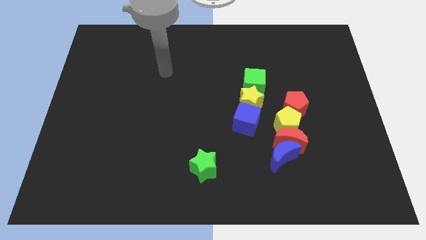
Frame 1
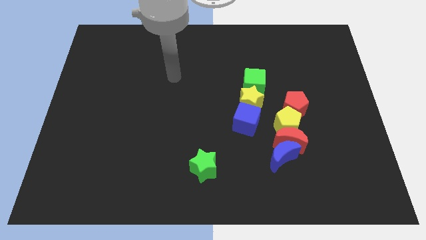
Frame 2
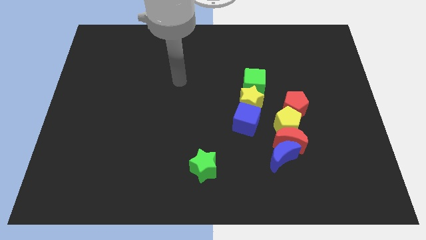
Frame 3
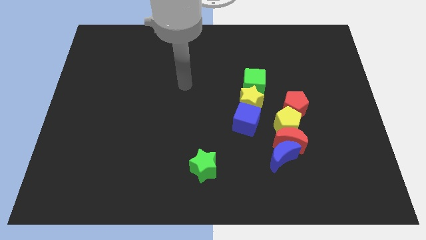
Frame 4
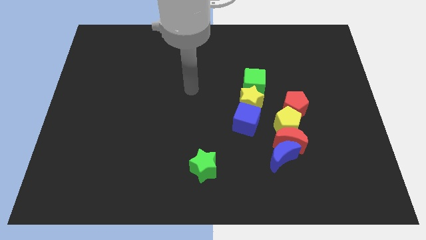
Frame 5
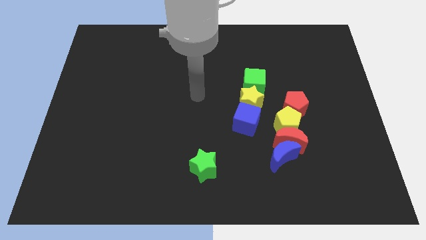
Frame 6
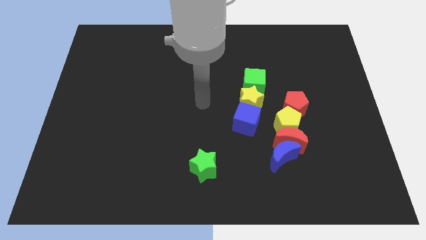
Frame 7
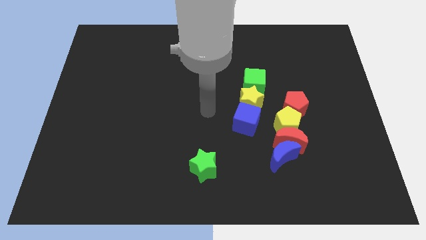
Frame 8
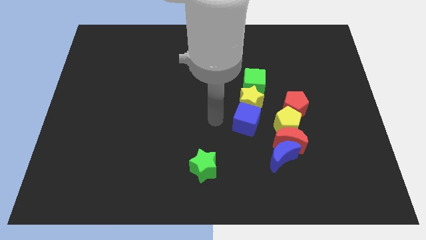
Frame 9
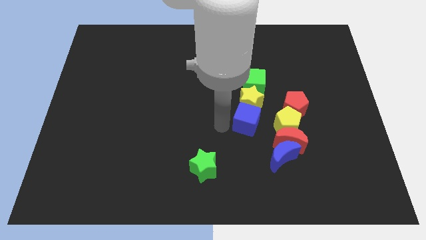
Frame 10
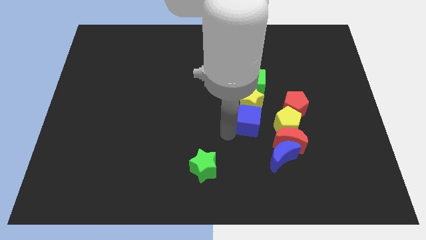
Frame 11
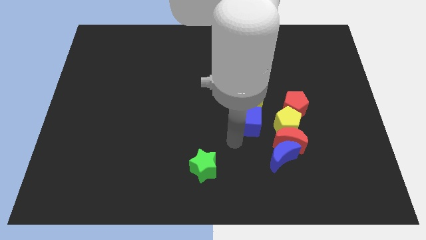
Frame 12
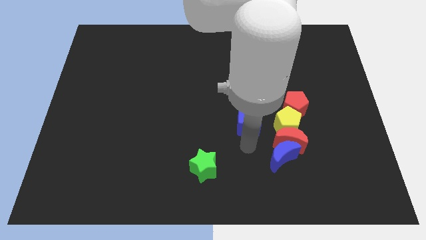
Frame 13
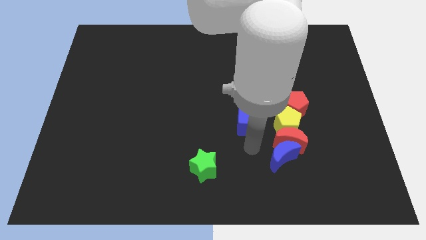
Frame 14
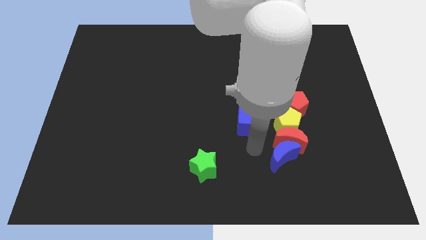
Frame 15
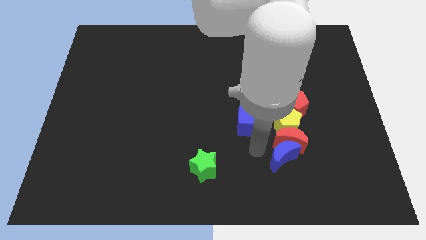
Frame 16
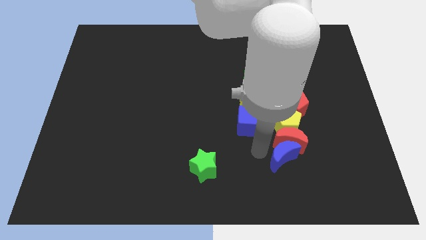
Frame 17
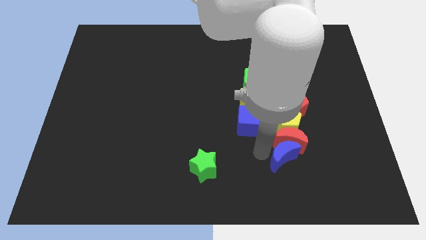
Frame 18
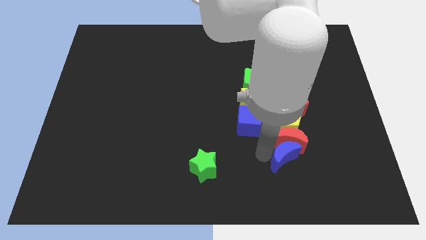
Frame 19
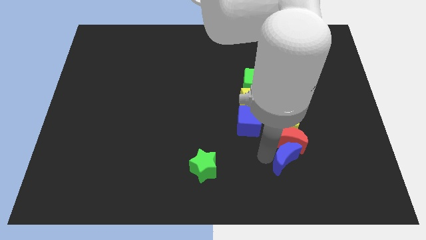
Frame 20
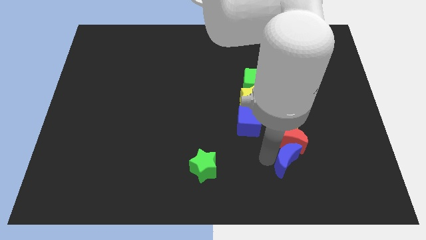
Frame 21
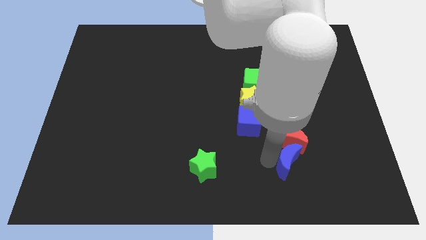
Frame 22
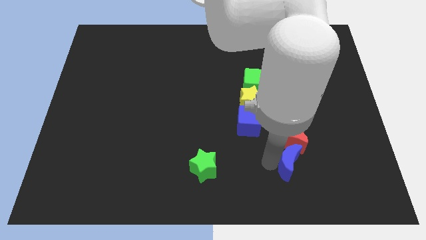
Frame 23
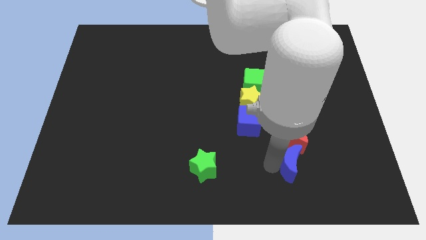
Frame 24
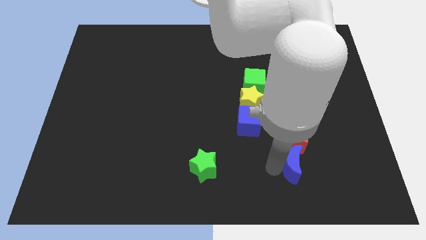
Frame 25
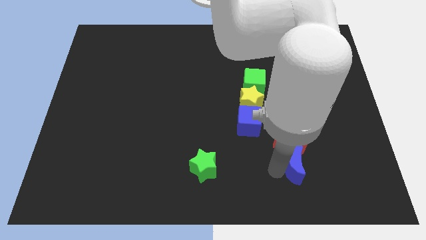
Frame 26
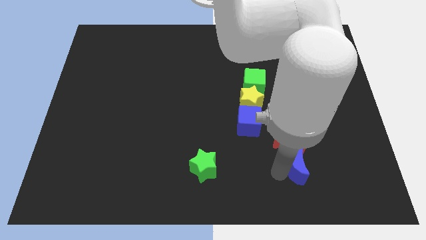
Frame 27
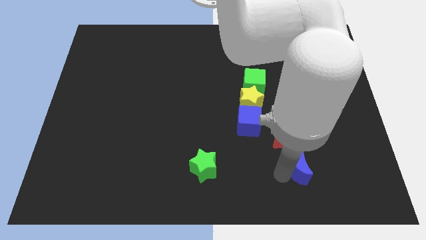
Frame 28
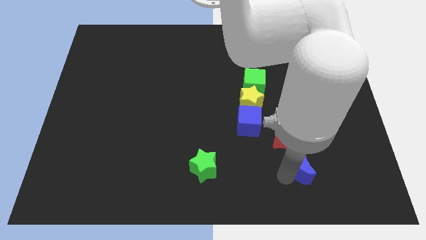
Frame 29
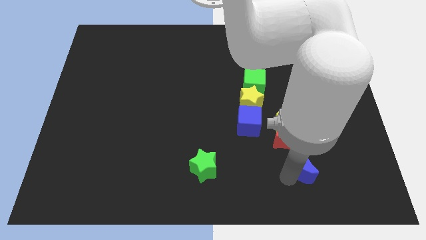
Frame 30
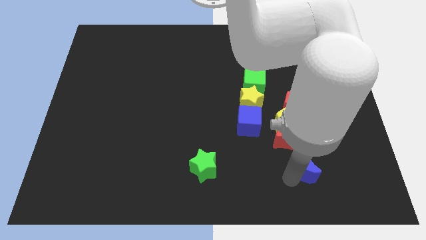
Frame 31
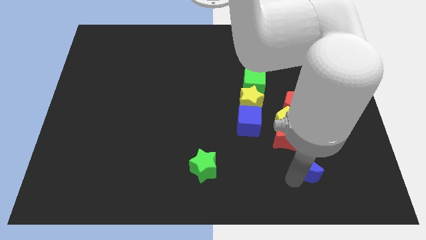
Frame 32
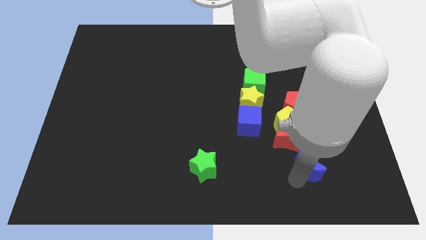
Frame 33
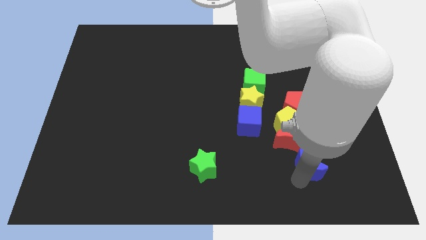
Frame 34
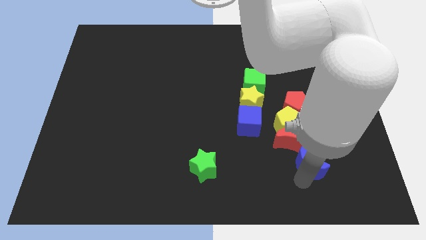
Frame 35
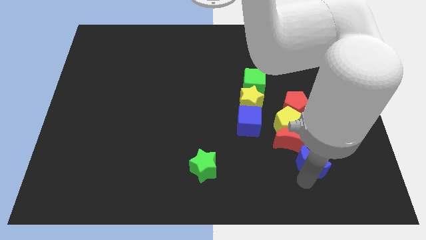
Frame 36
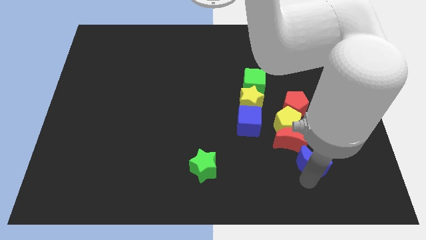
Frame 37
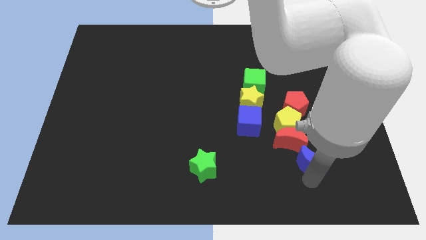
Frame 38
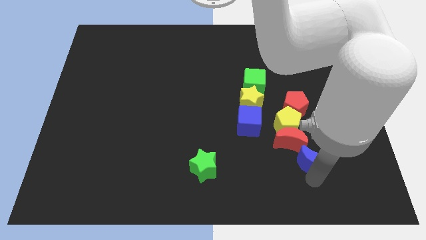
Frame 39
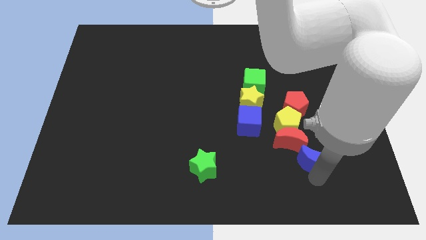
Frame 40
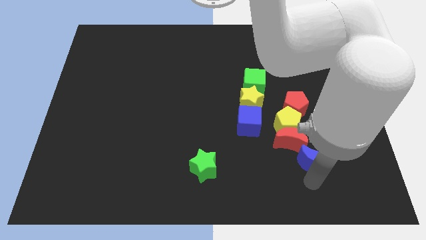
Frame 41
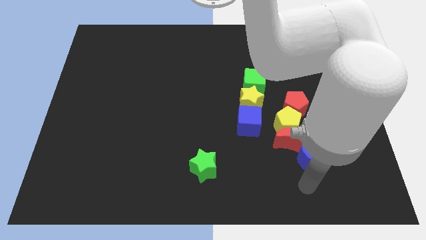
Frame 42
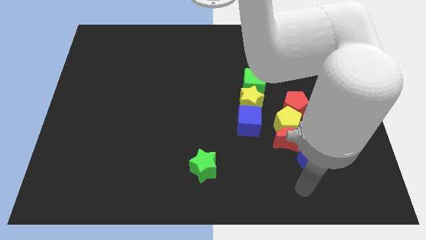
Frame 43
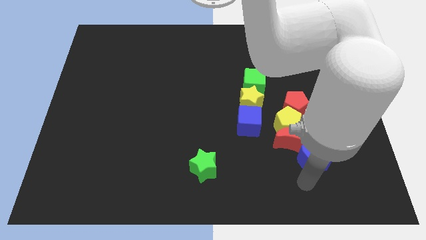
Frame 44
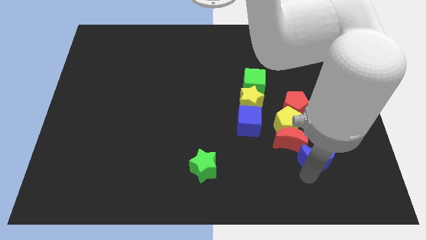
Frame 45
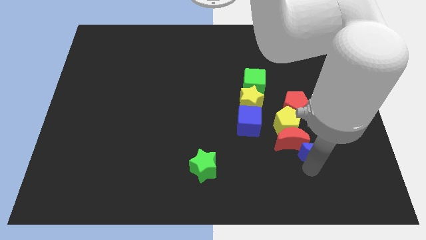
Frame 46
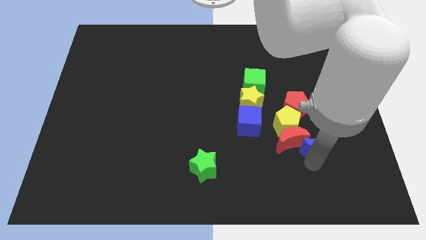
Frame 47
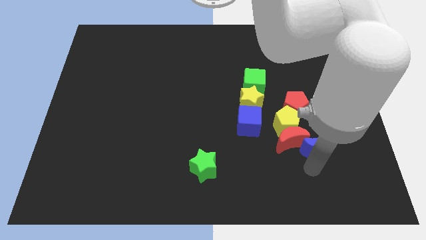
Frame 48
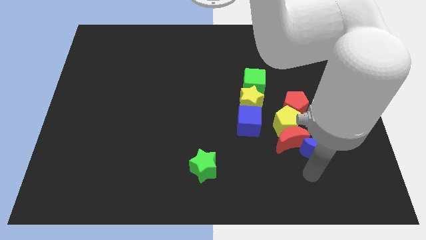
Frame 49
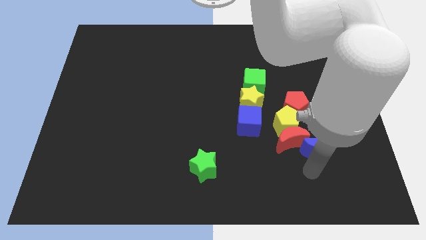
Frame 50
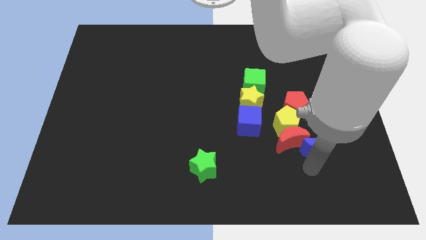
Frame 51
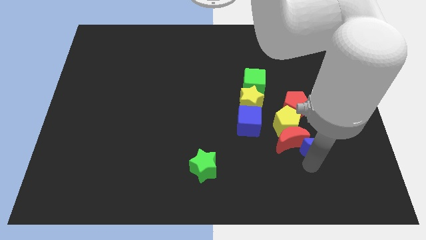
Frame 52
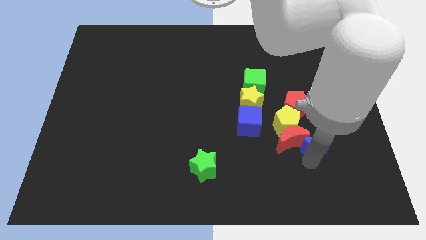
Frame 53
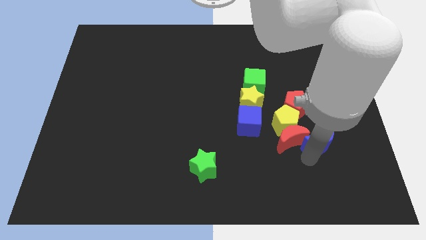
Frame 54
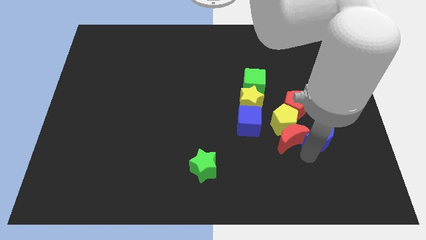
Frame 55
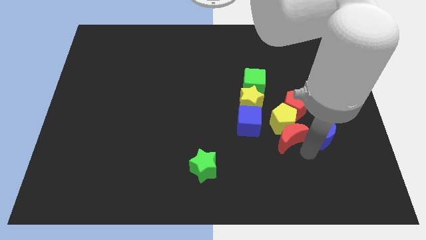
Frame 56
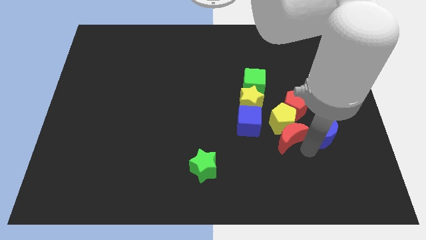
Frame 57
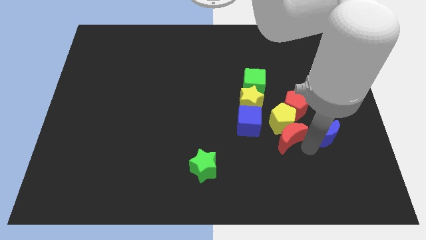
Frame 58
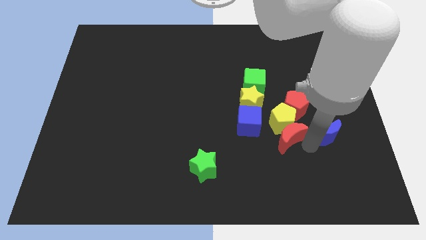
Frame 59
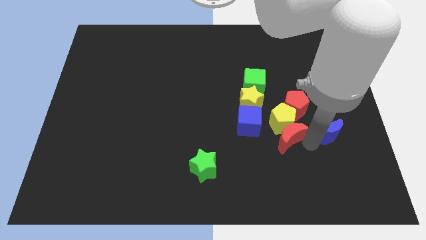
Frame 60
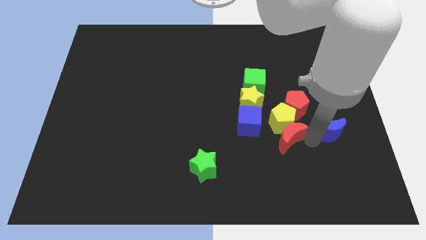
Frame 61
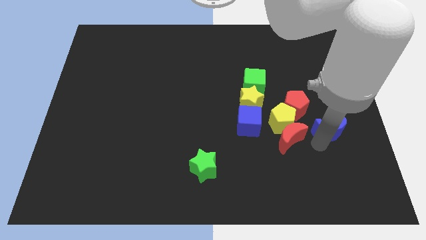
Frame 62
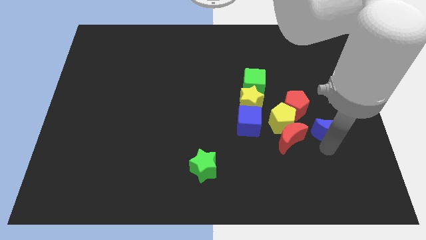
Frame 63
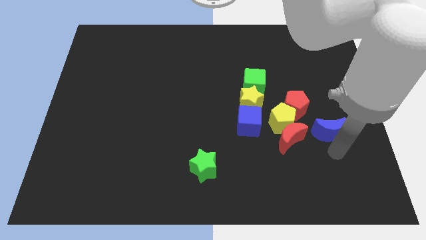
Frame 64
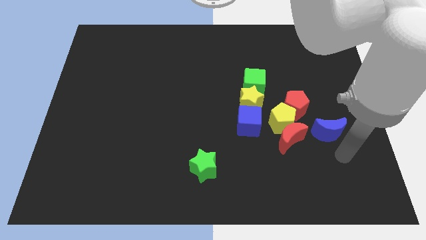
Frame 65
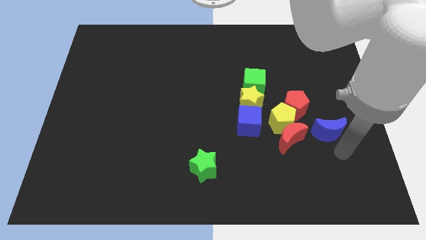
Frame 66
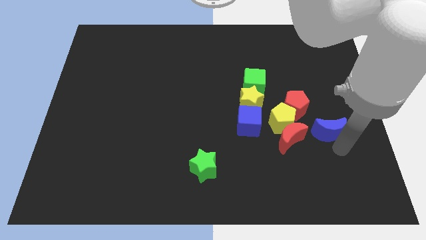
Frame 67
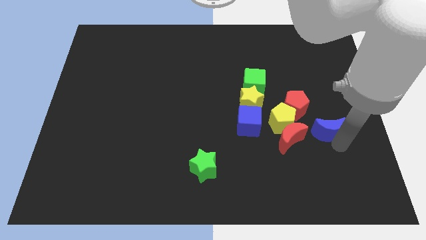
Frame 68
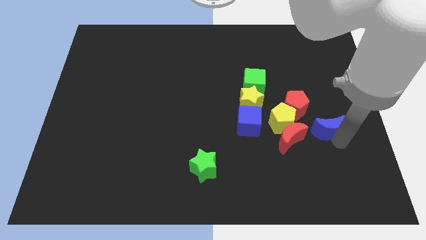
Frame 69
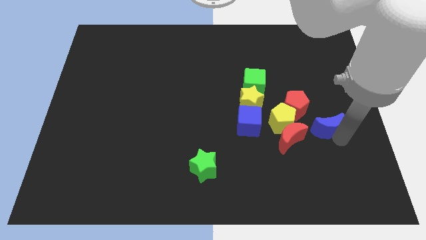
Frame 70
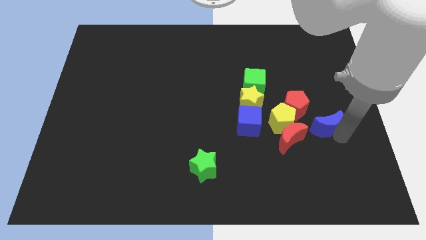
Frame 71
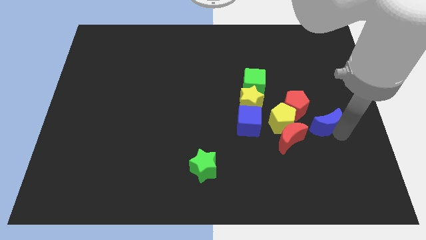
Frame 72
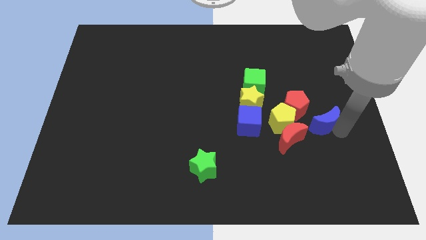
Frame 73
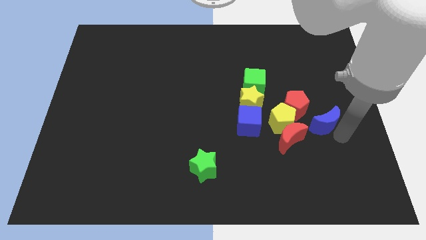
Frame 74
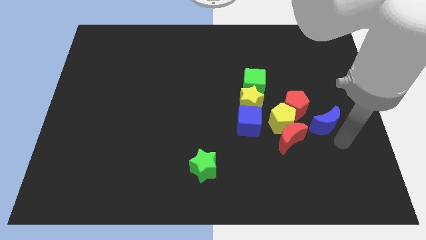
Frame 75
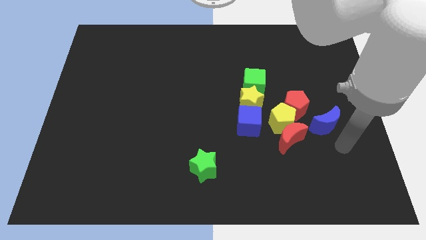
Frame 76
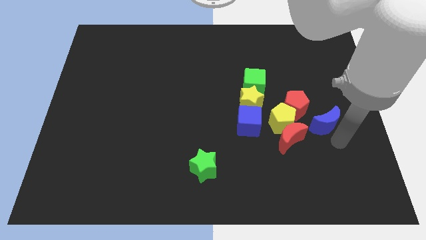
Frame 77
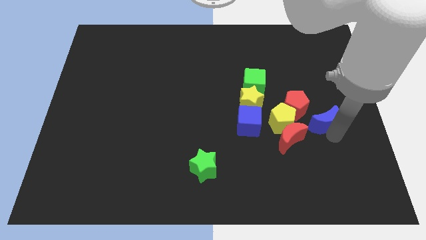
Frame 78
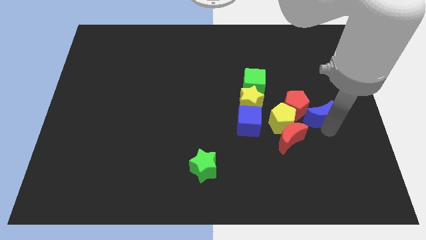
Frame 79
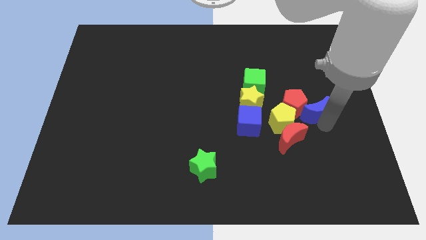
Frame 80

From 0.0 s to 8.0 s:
move the blue moon upwards somewhat

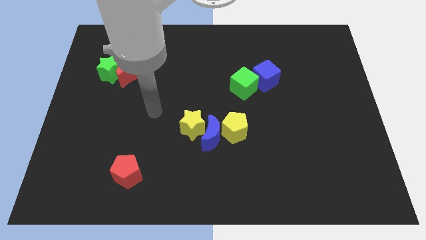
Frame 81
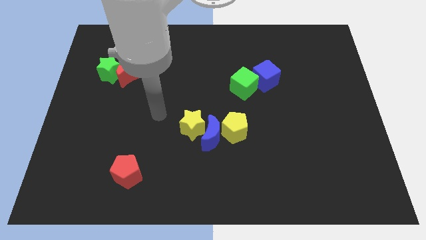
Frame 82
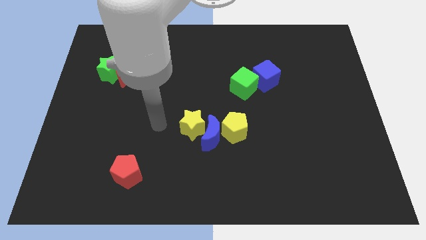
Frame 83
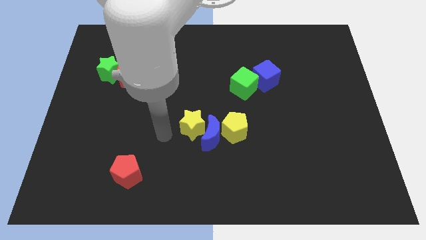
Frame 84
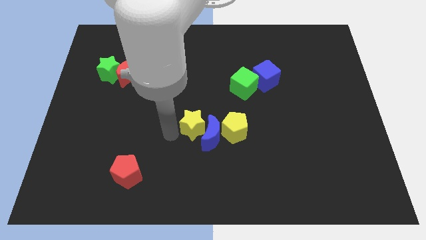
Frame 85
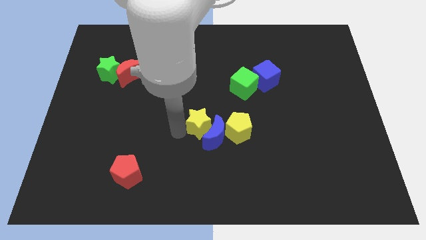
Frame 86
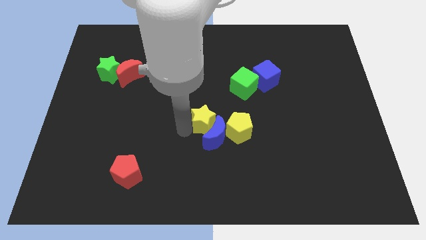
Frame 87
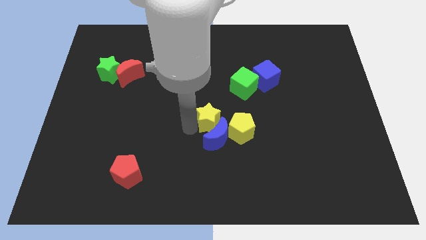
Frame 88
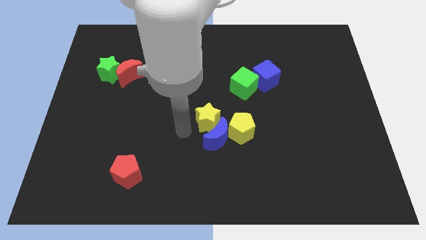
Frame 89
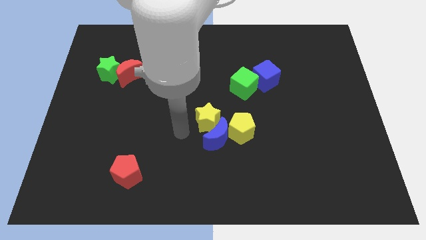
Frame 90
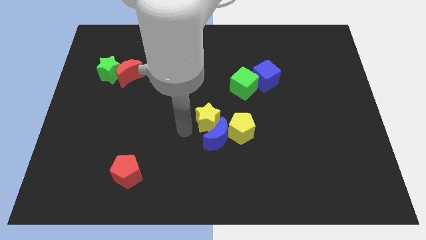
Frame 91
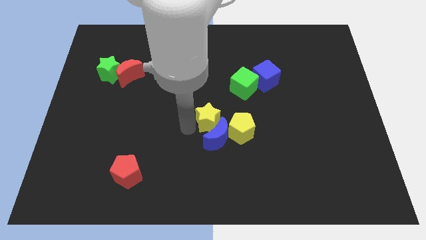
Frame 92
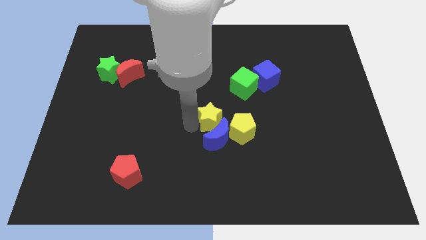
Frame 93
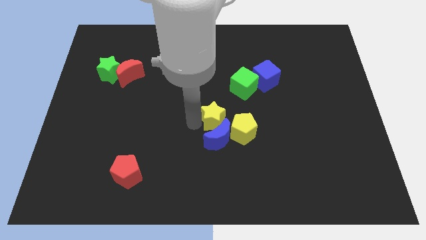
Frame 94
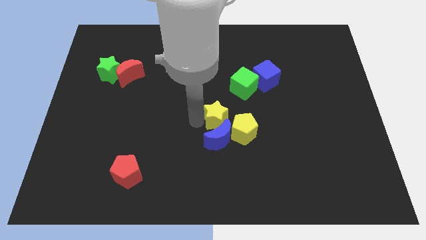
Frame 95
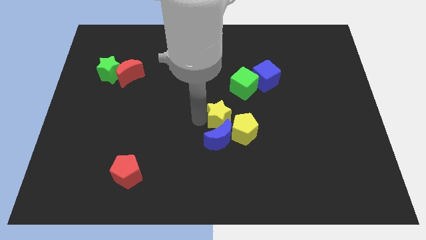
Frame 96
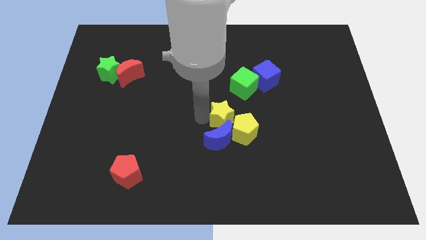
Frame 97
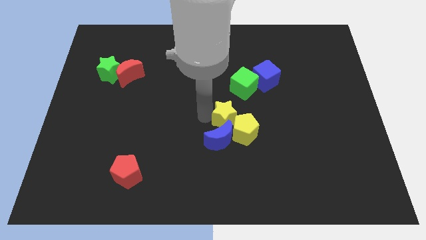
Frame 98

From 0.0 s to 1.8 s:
slide the yellow star somewhat to the right
